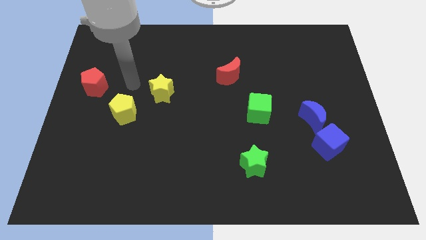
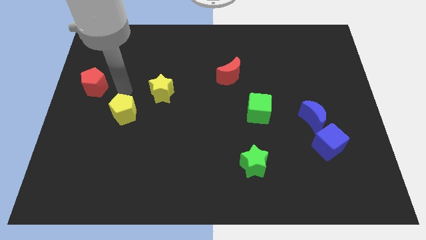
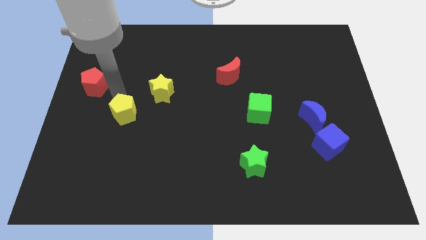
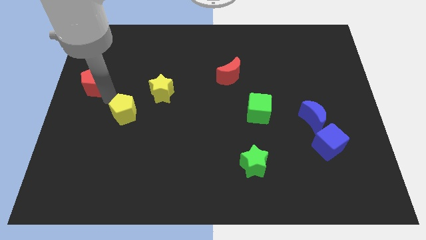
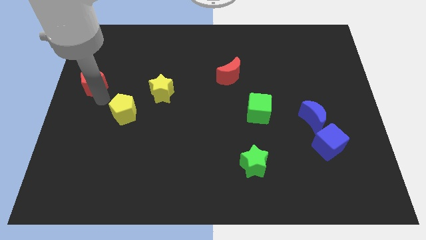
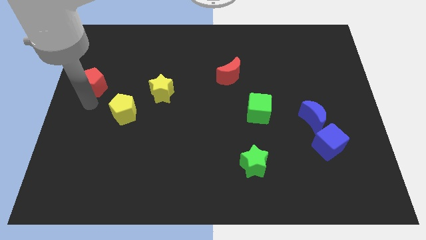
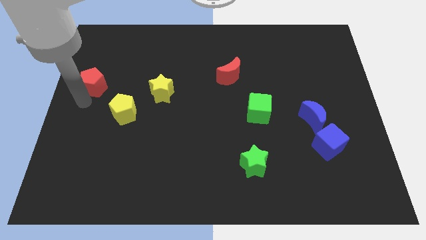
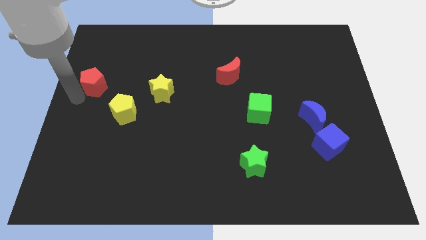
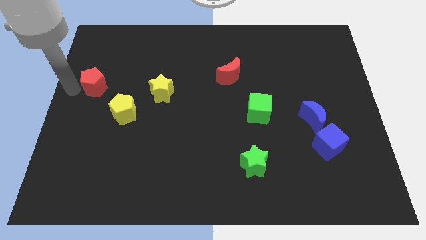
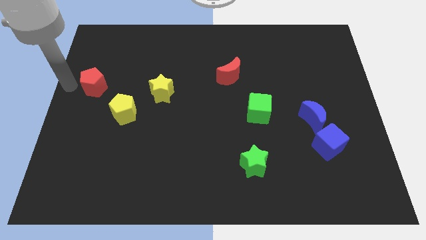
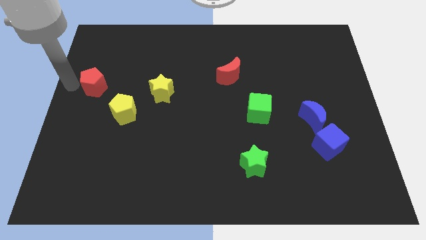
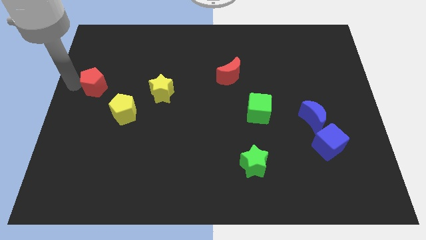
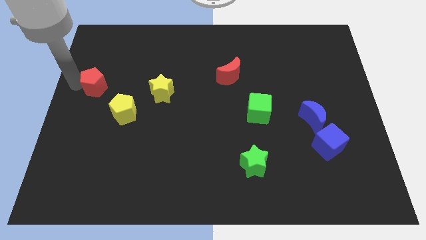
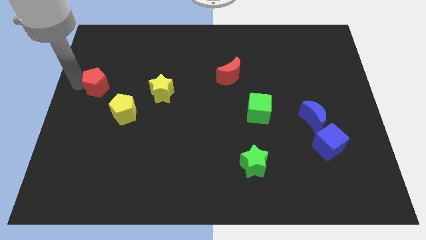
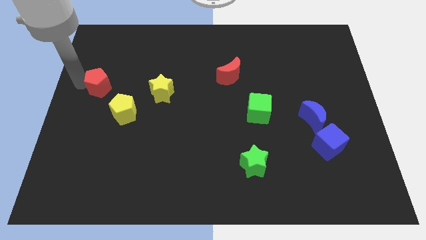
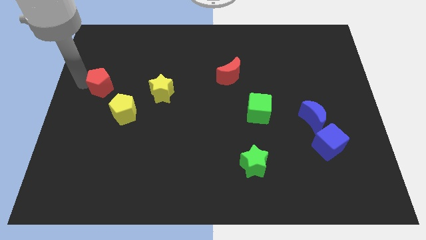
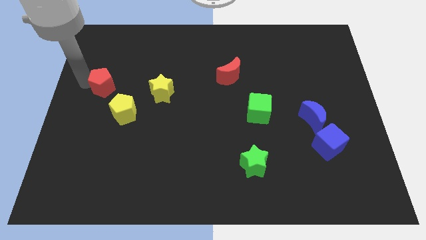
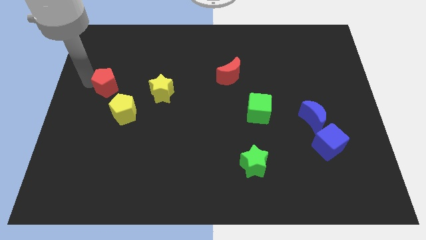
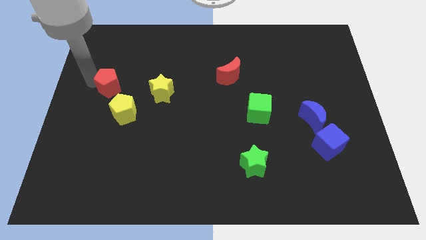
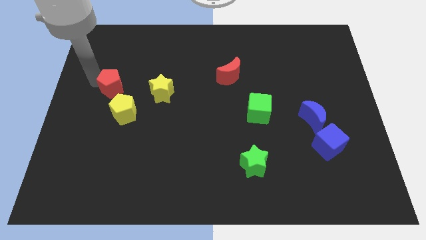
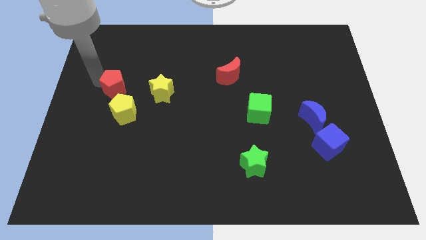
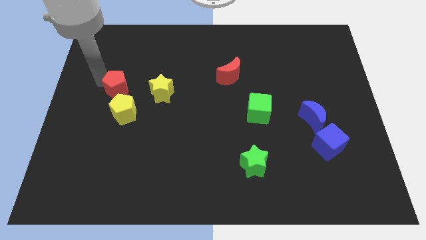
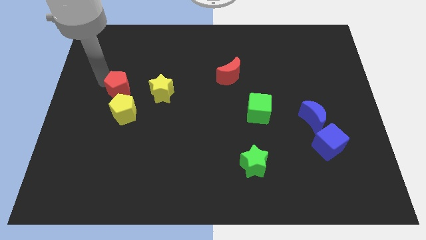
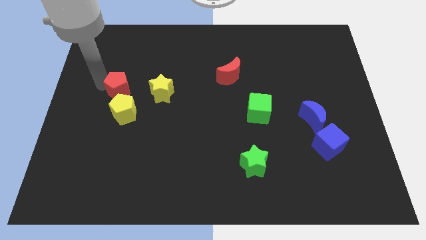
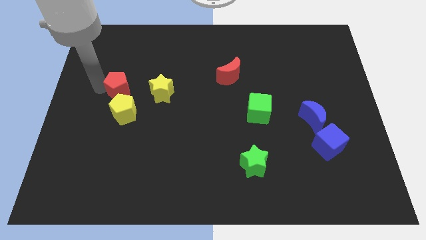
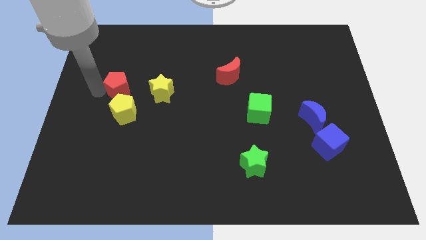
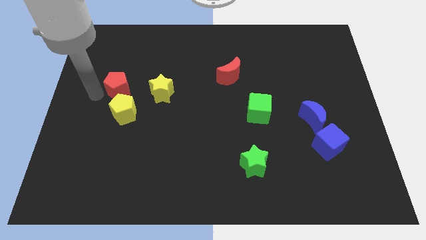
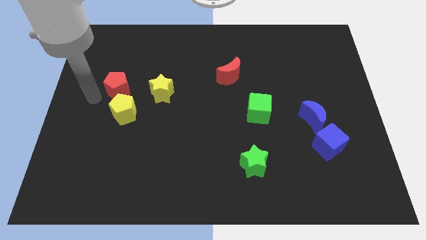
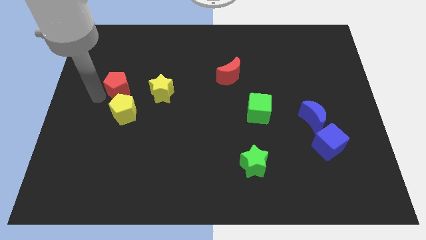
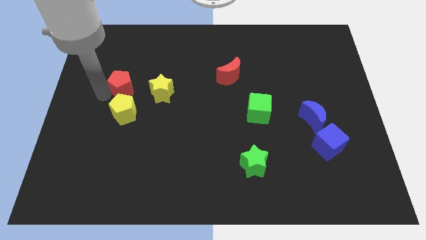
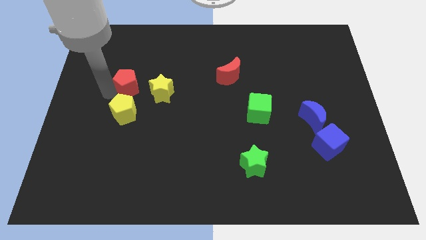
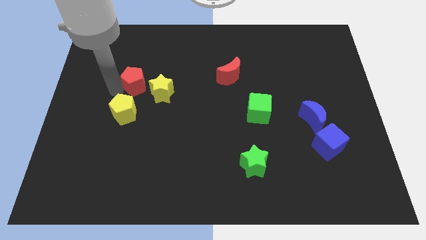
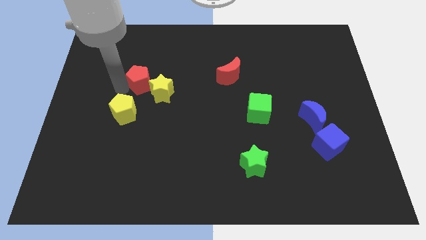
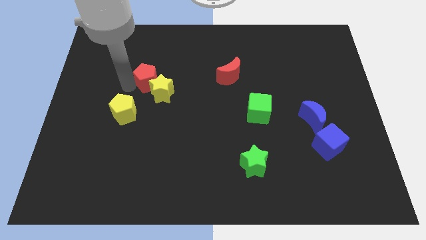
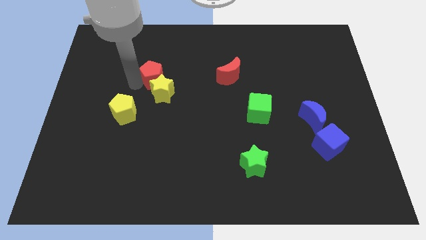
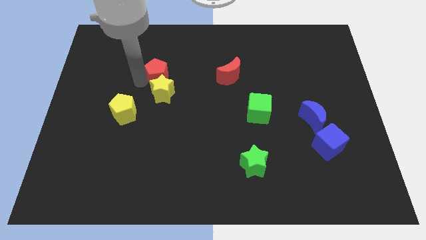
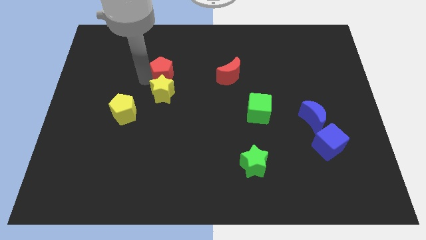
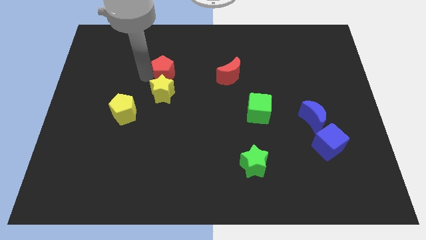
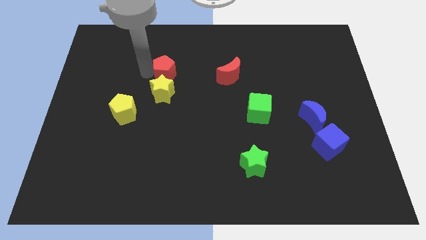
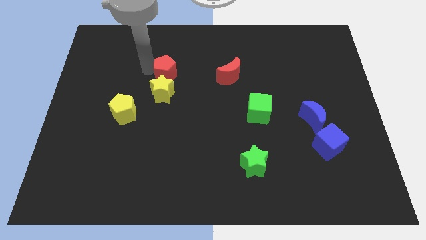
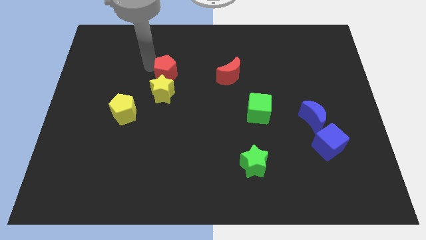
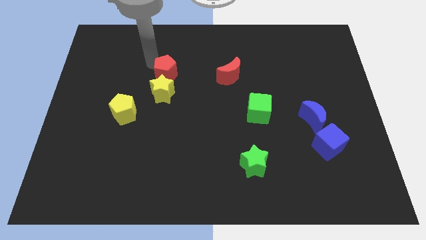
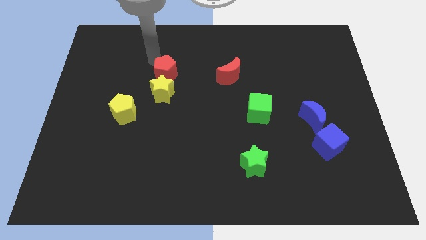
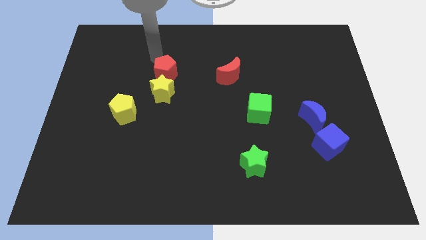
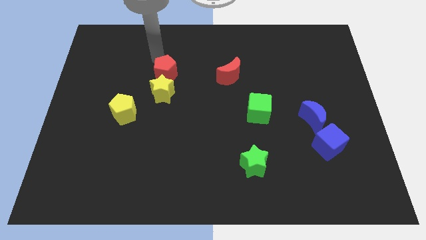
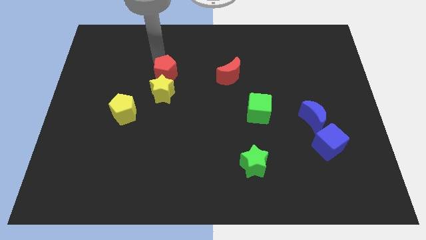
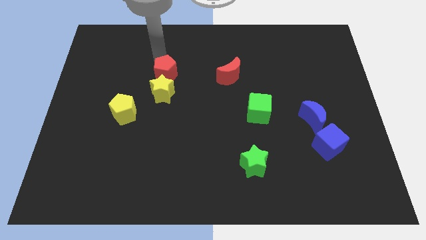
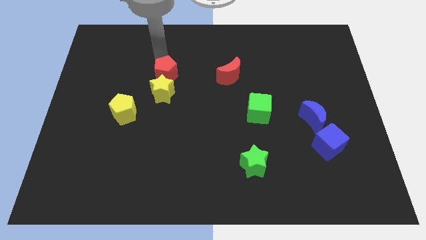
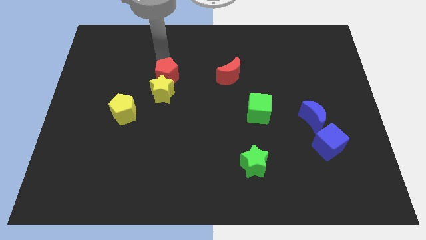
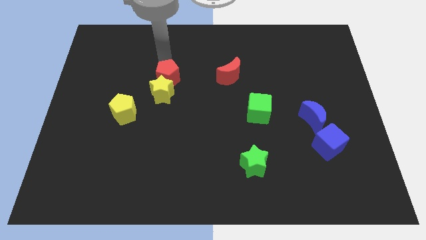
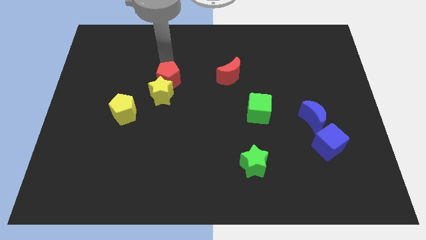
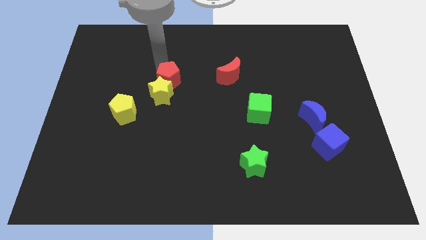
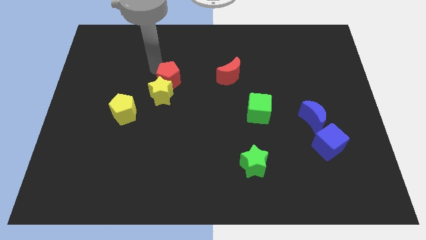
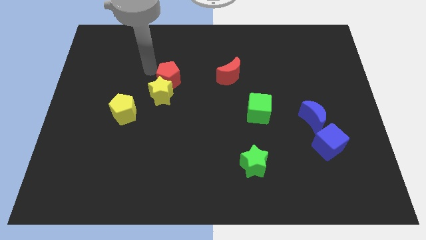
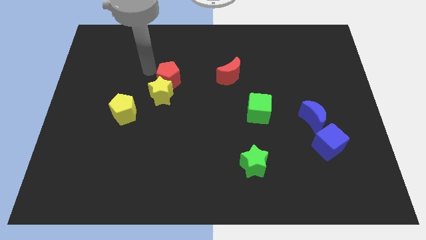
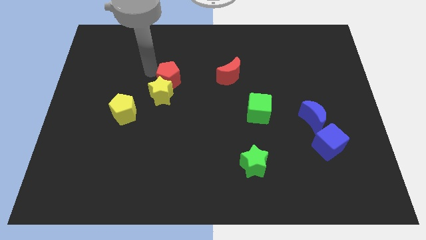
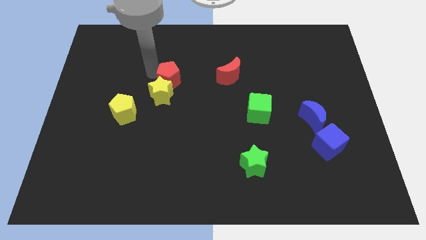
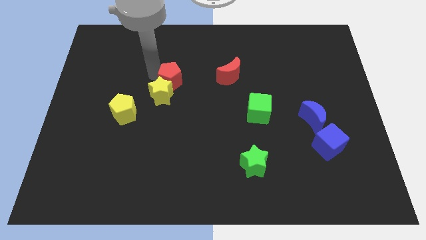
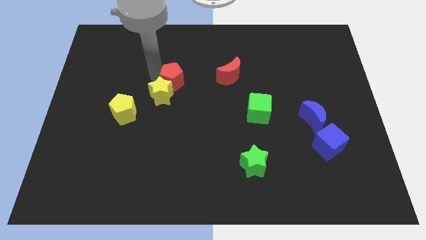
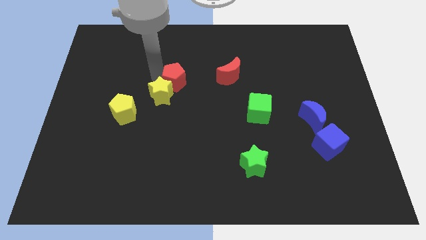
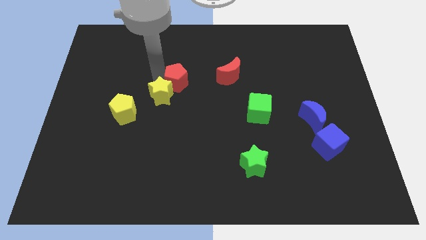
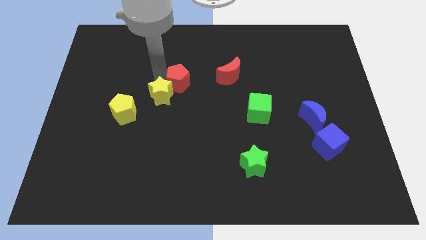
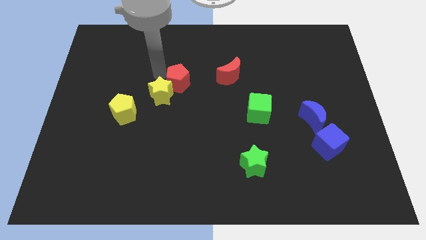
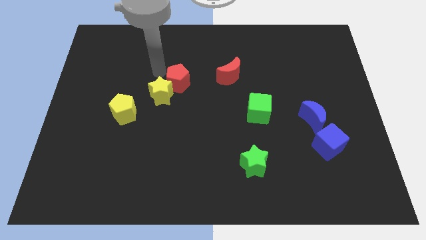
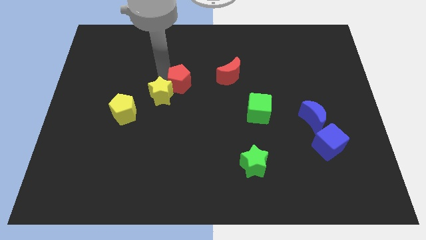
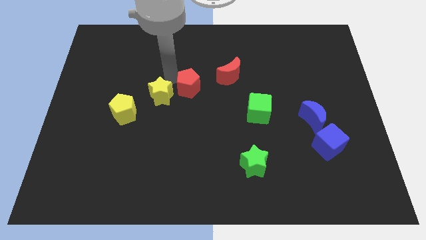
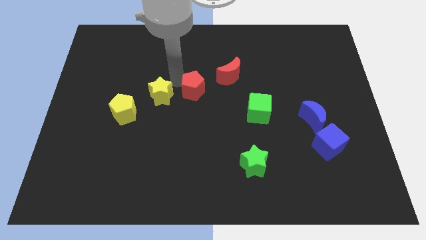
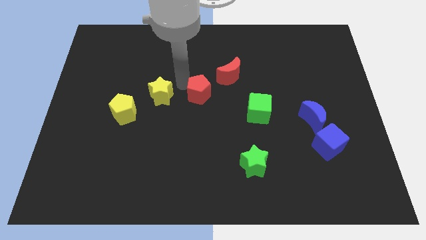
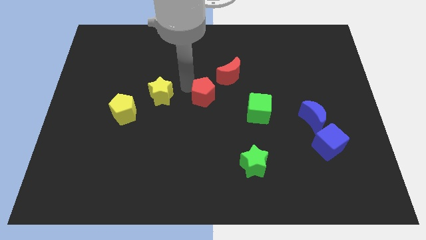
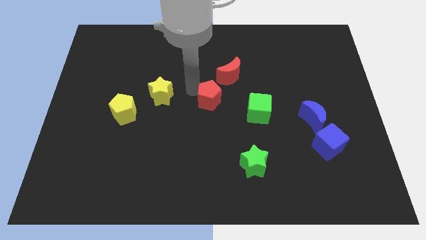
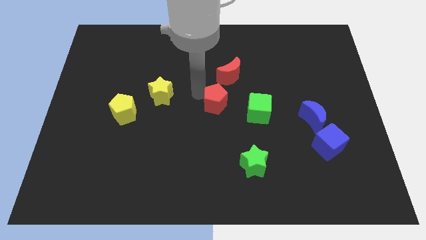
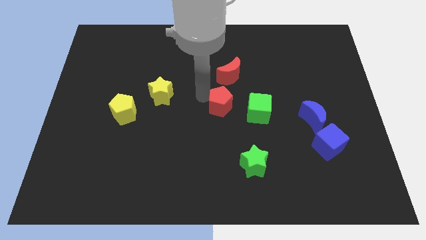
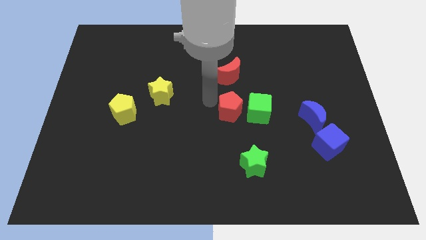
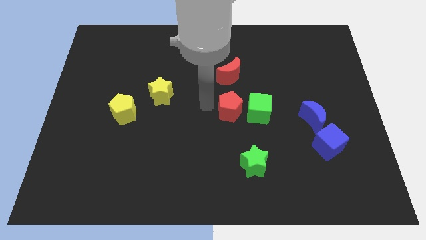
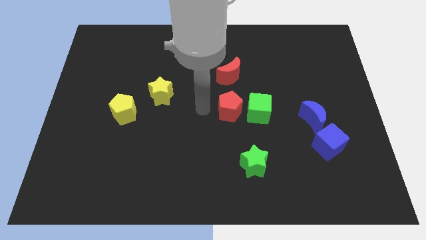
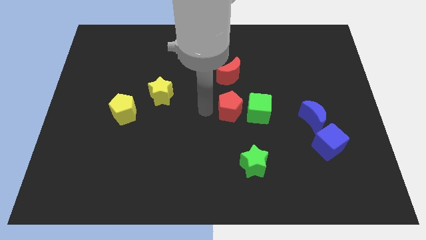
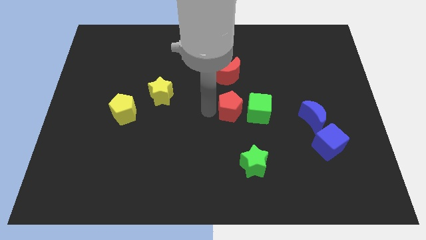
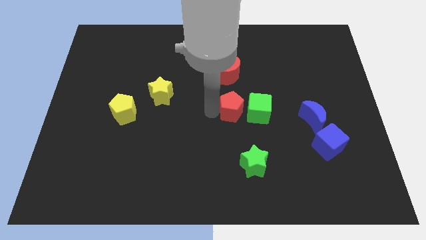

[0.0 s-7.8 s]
put the red pentagon towards the green cube
